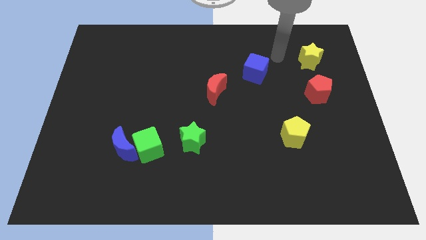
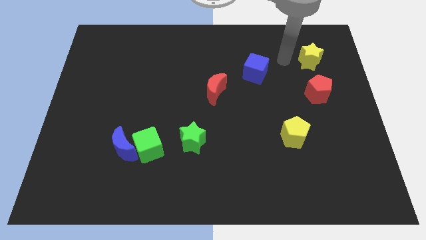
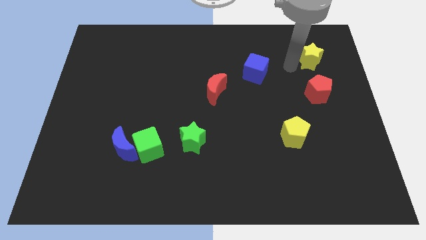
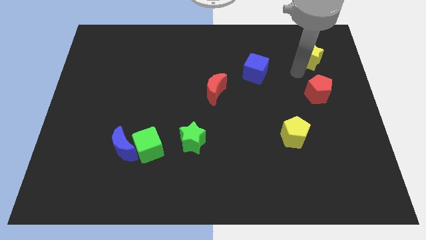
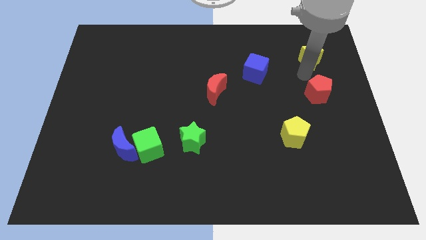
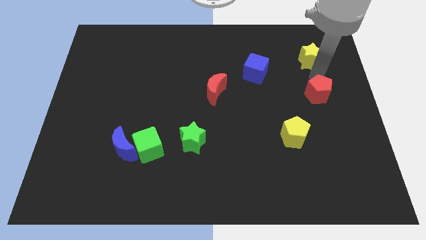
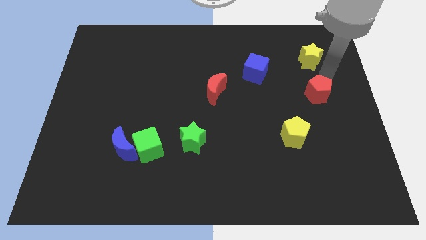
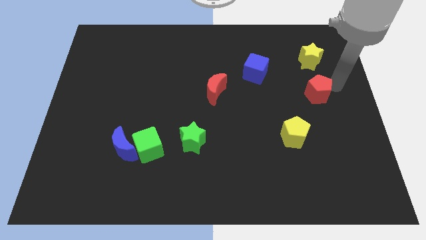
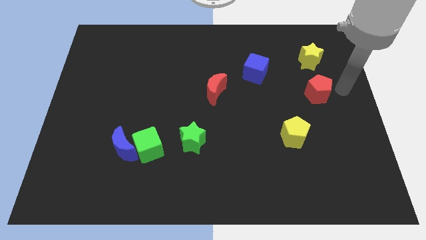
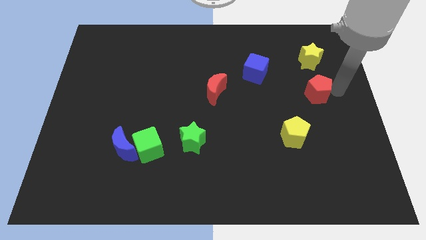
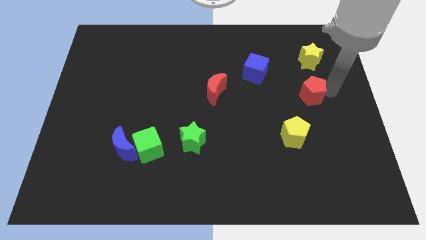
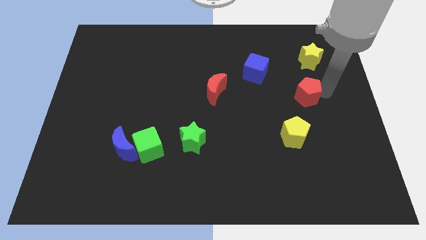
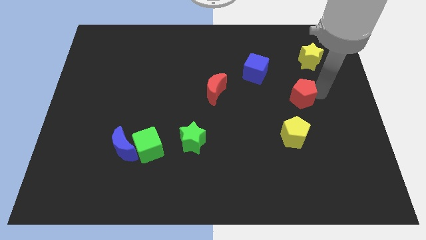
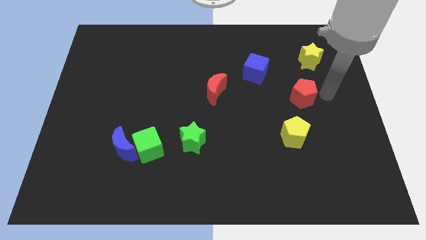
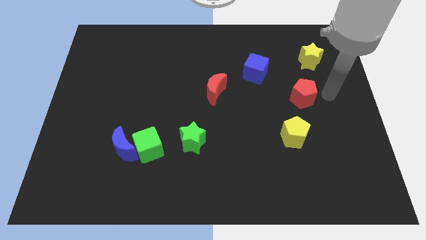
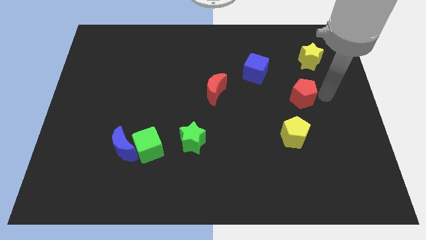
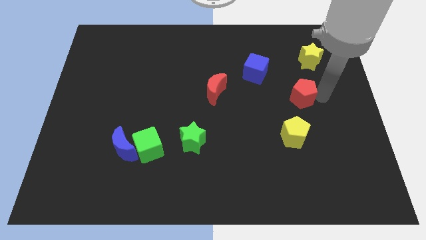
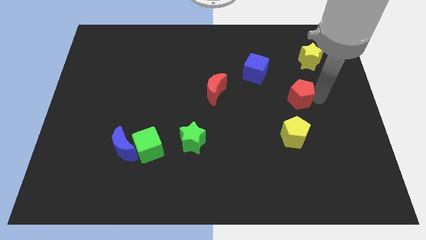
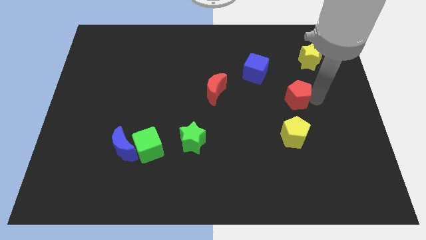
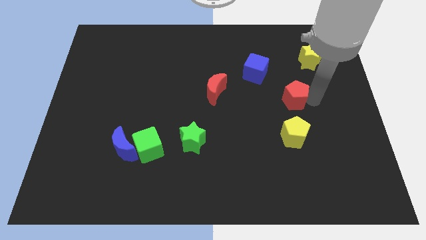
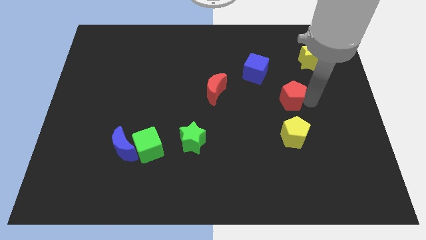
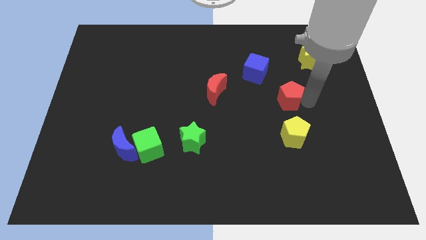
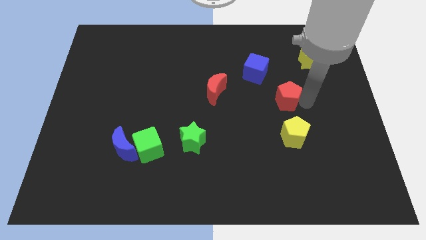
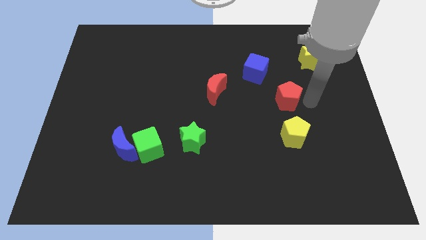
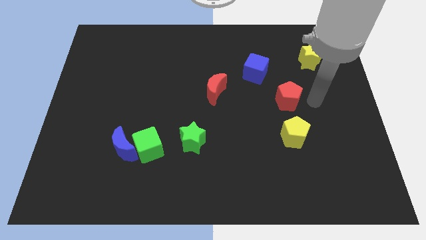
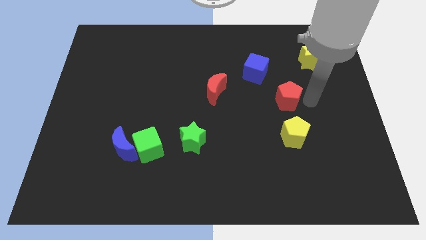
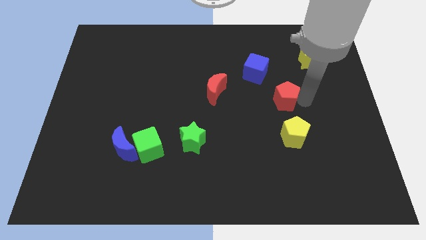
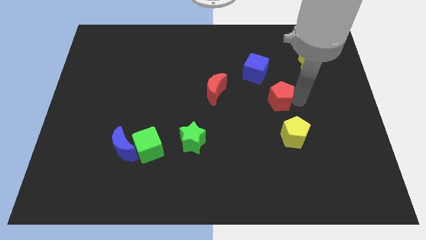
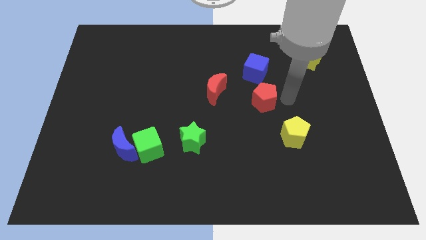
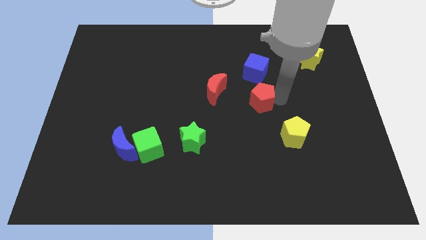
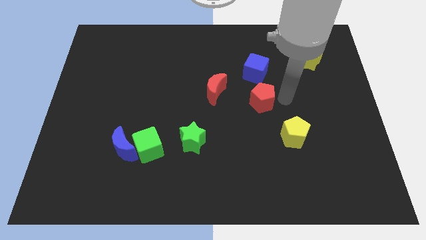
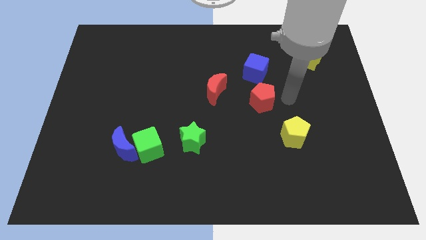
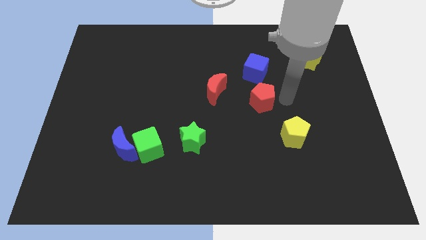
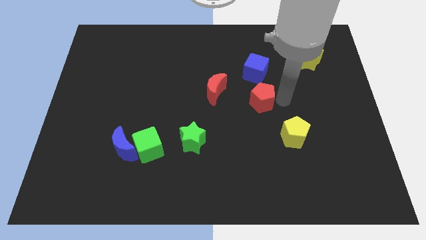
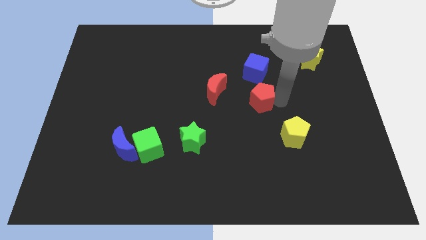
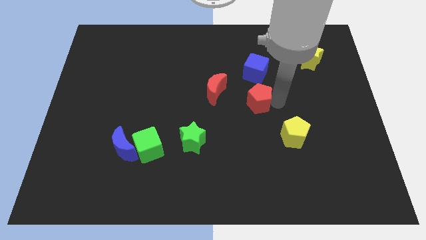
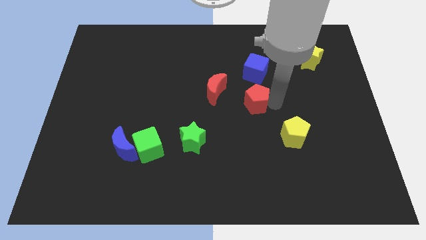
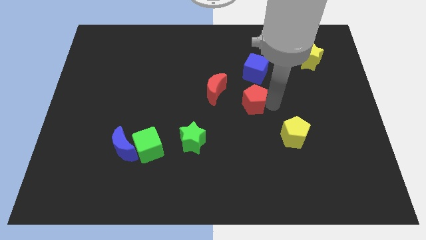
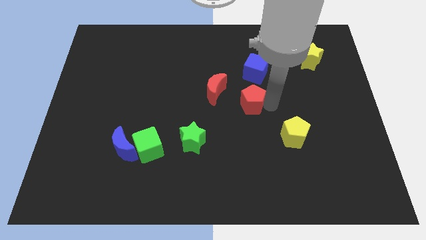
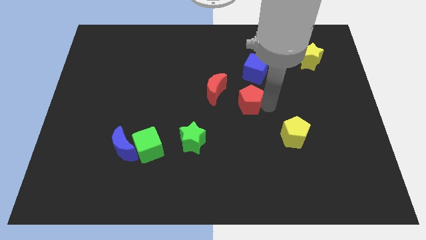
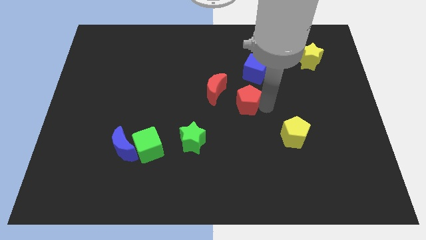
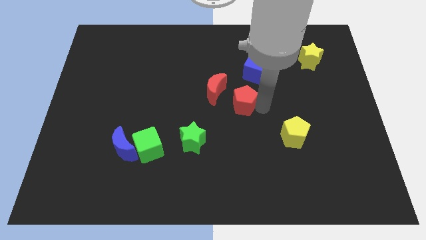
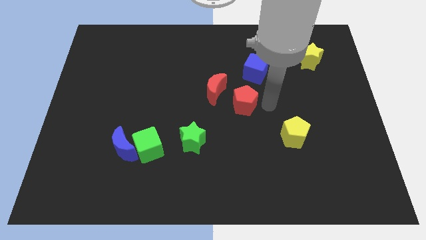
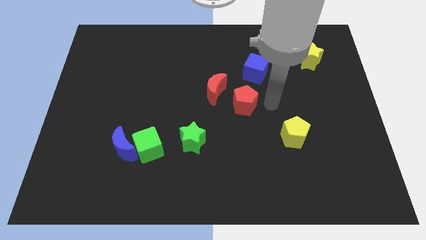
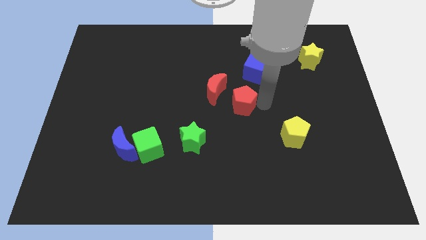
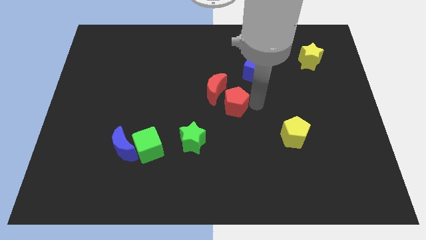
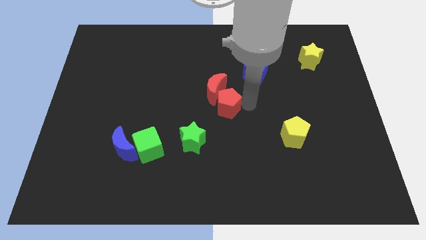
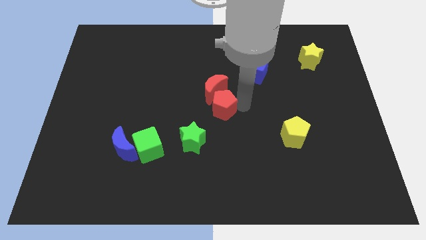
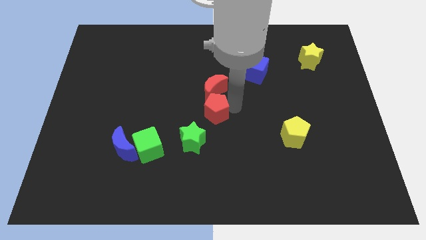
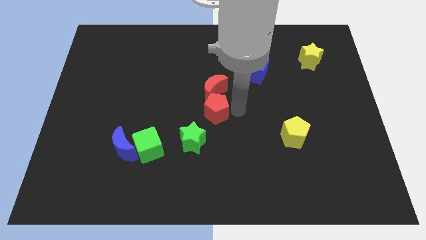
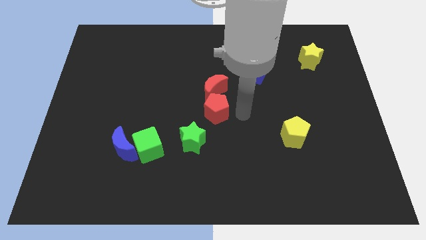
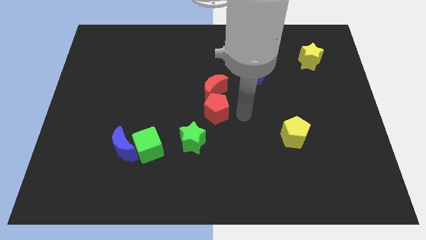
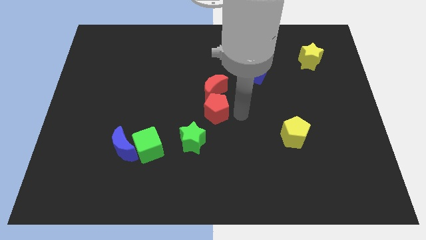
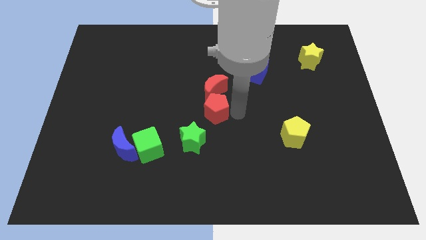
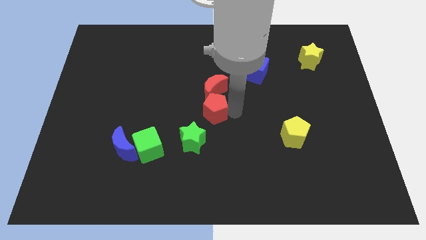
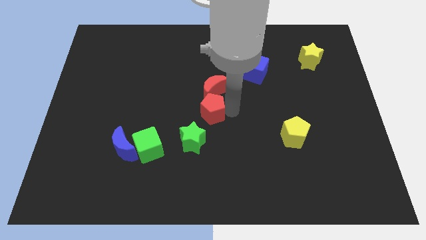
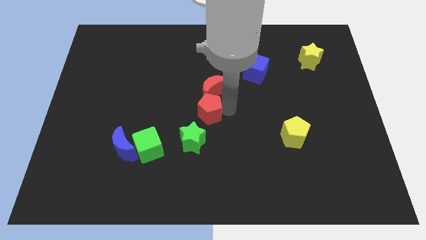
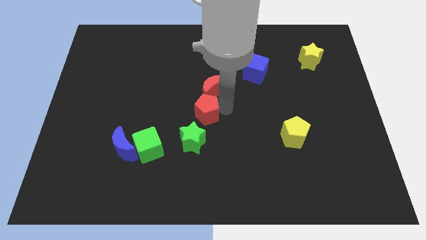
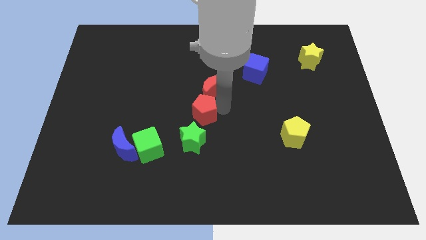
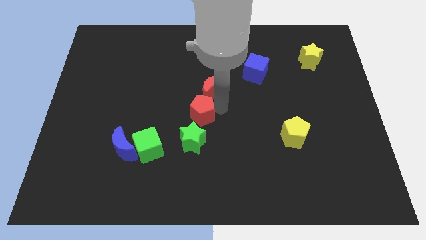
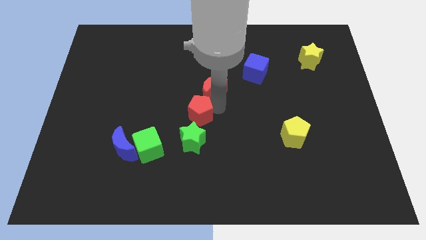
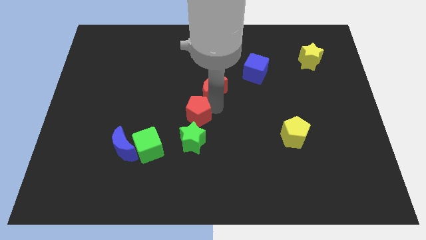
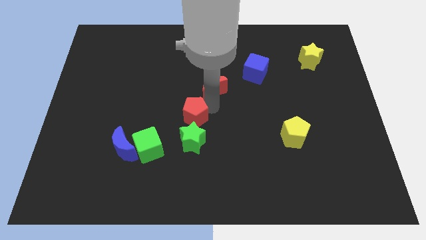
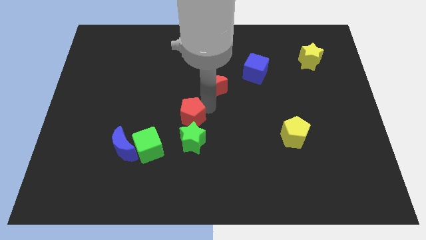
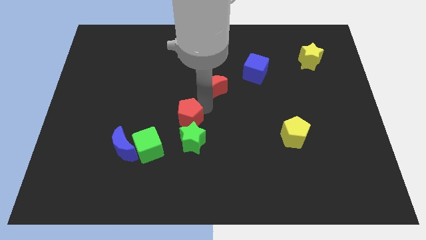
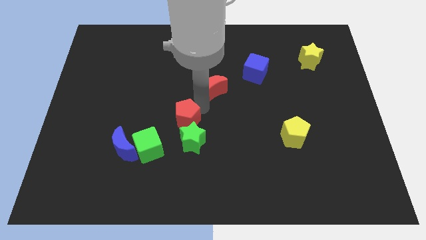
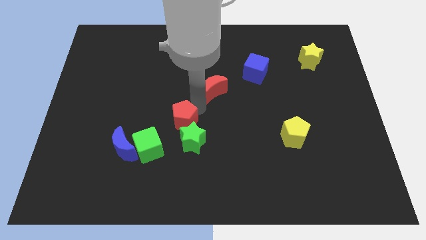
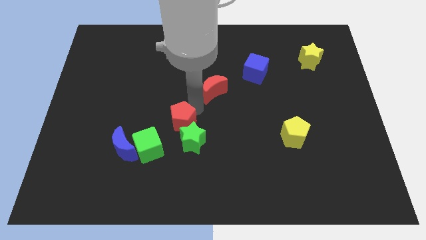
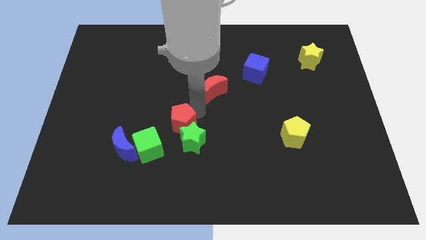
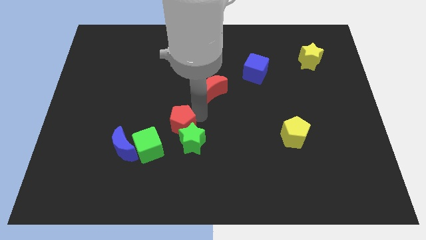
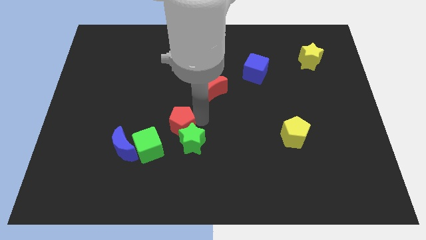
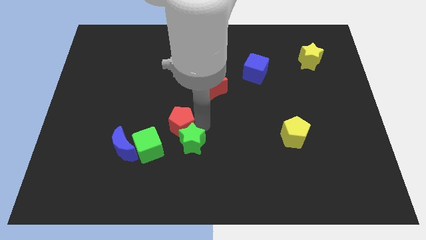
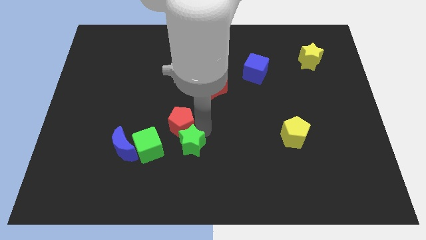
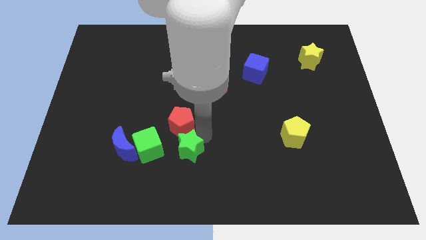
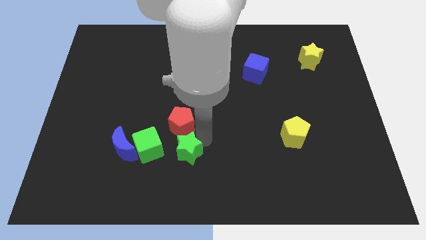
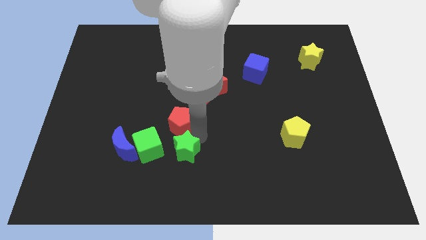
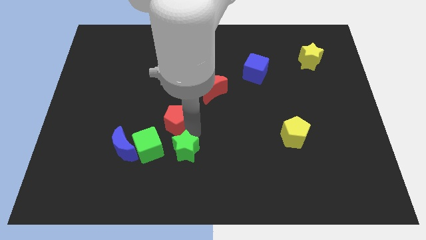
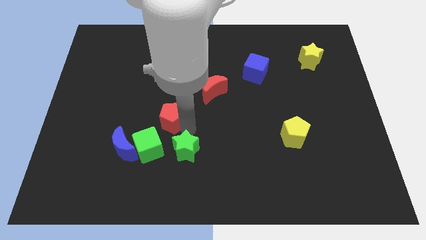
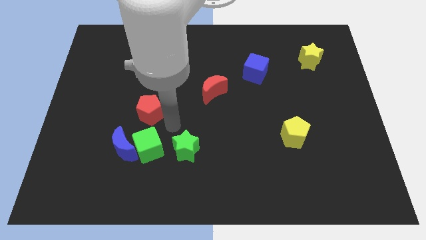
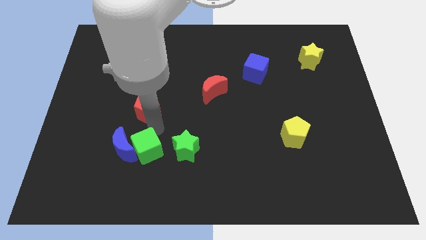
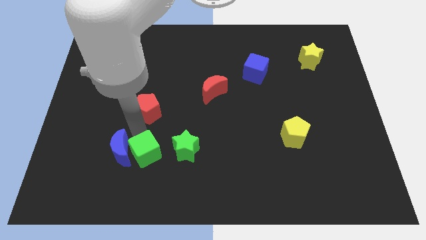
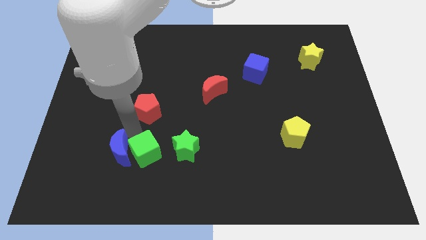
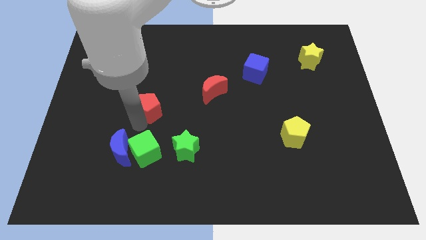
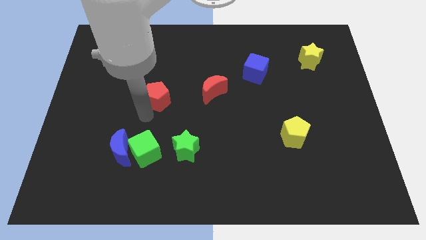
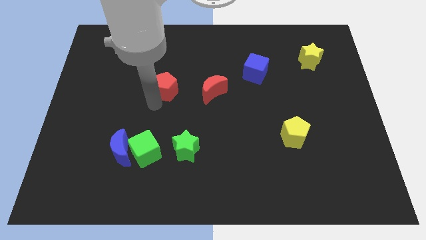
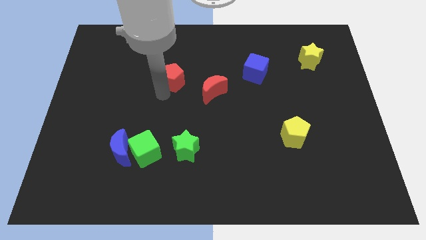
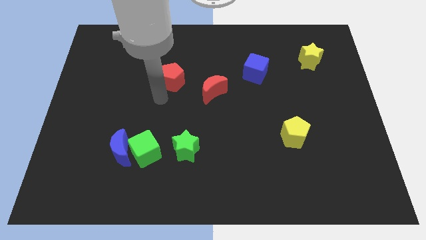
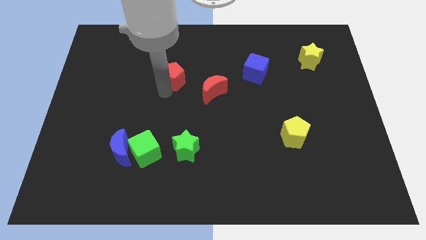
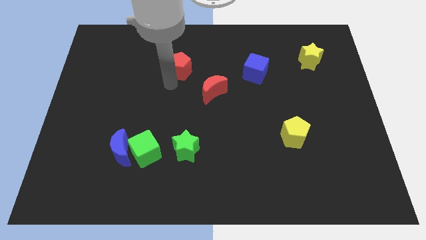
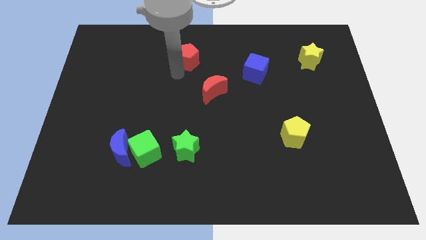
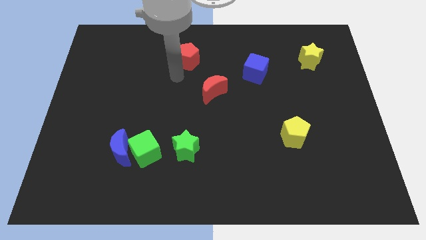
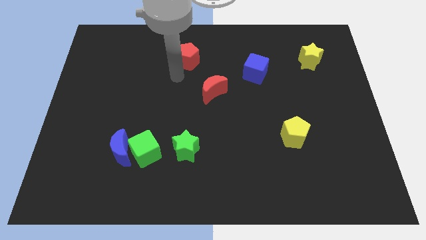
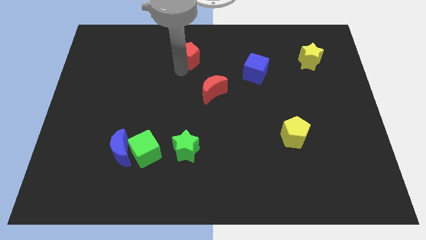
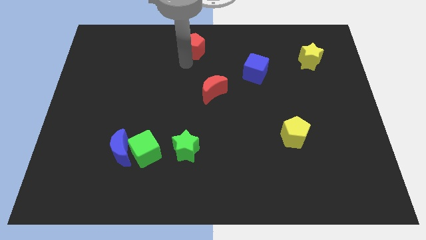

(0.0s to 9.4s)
slide the red pentagon to the top
